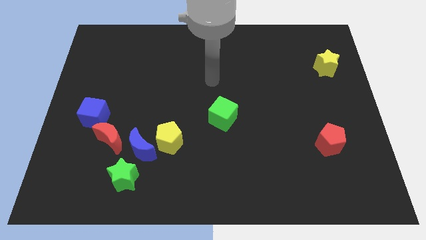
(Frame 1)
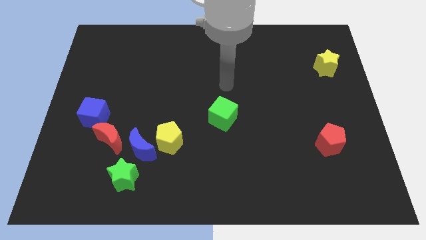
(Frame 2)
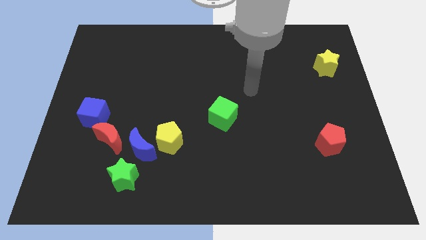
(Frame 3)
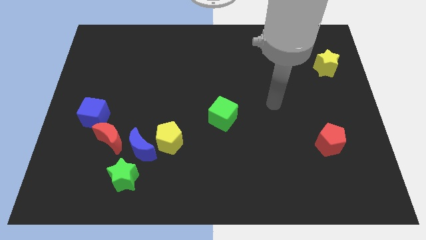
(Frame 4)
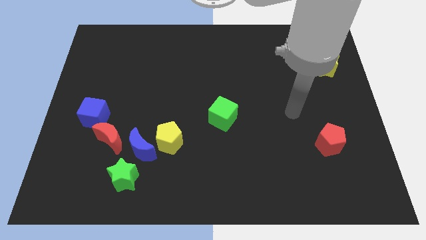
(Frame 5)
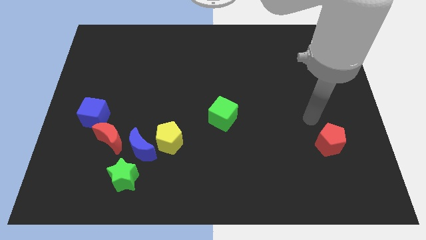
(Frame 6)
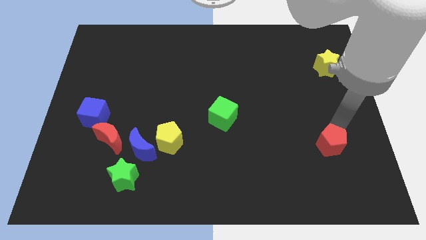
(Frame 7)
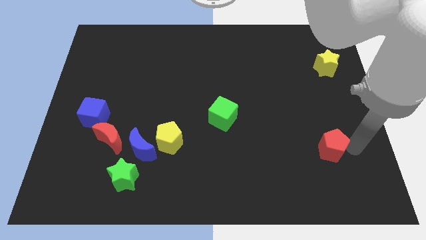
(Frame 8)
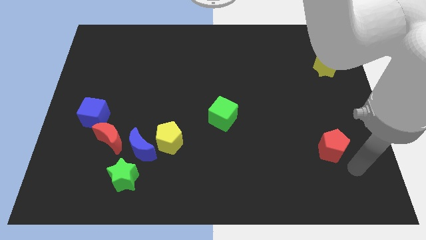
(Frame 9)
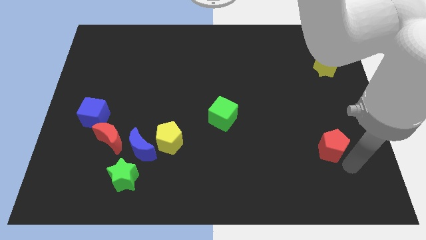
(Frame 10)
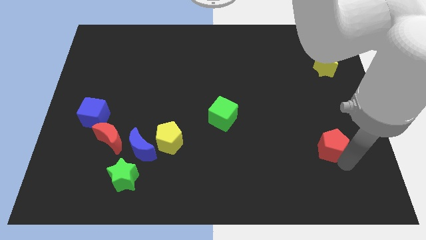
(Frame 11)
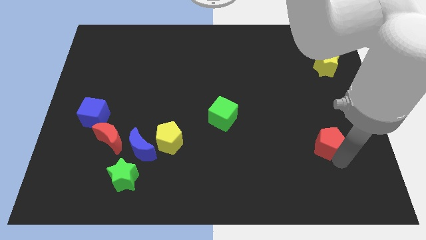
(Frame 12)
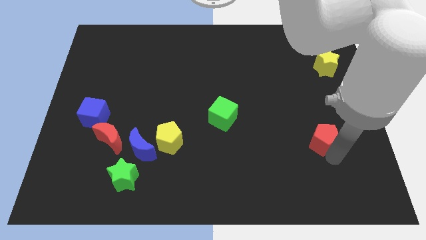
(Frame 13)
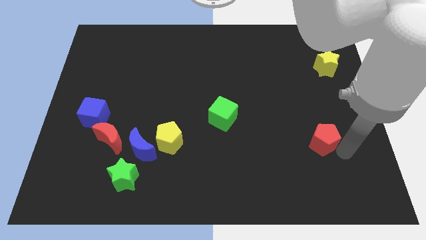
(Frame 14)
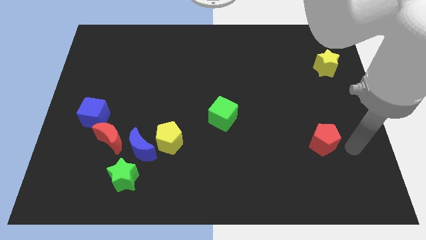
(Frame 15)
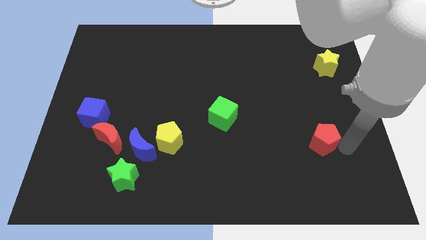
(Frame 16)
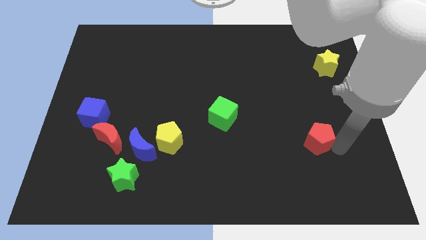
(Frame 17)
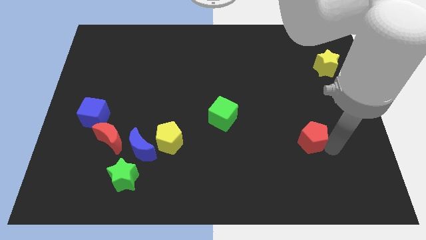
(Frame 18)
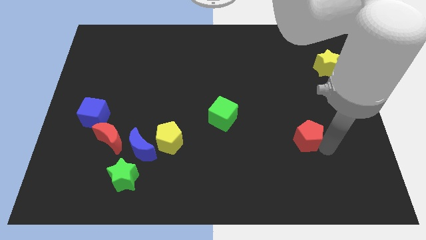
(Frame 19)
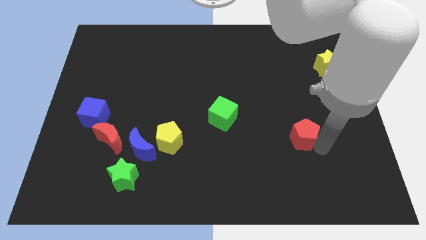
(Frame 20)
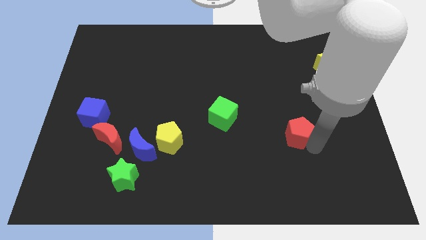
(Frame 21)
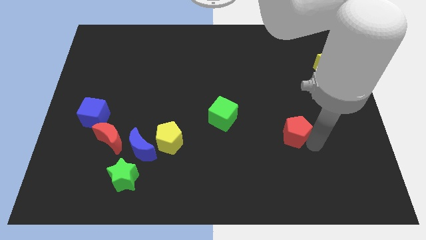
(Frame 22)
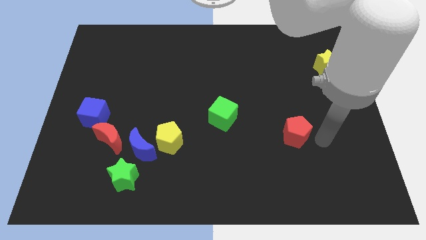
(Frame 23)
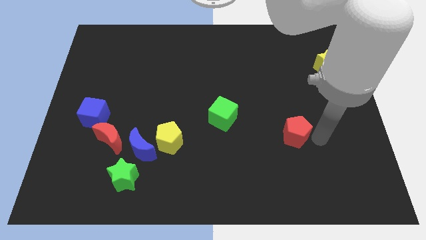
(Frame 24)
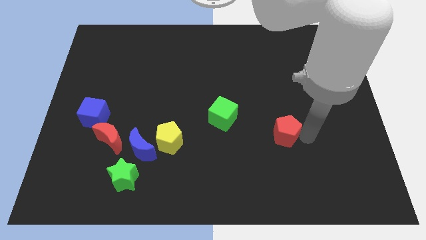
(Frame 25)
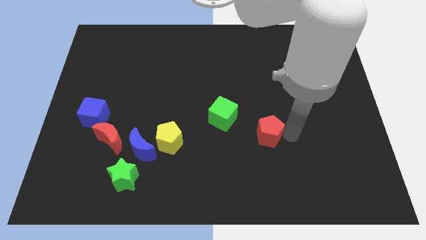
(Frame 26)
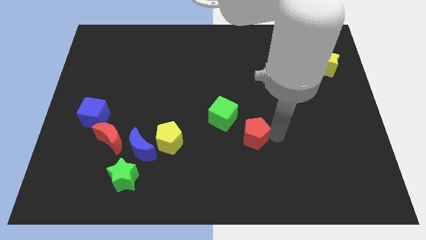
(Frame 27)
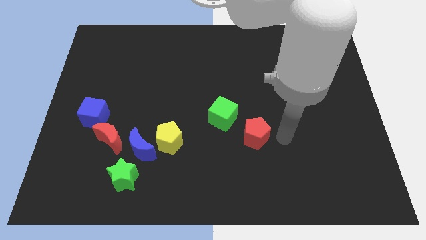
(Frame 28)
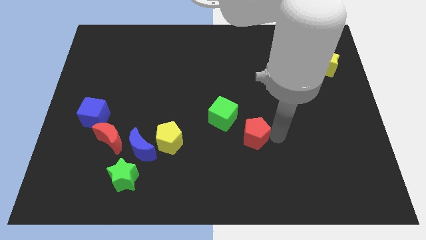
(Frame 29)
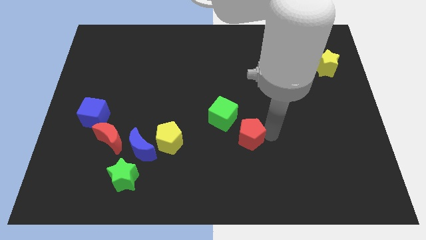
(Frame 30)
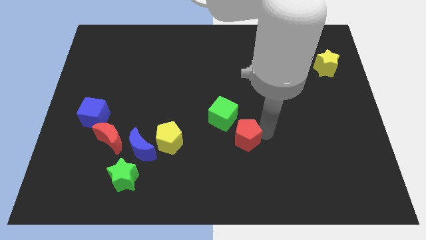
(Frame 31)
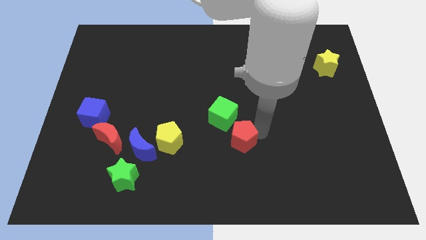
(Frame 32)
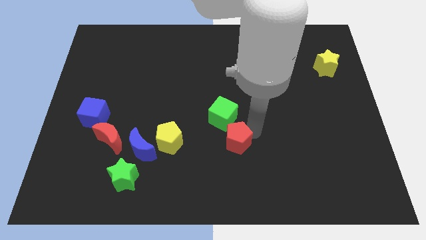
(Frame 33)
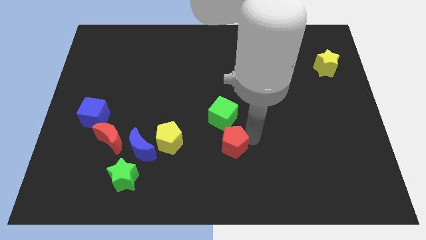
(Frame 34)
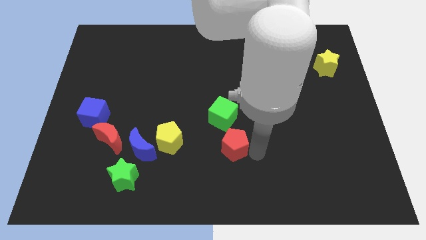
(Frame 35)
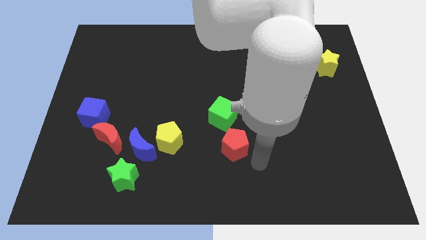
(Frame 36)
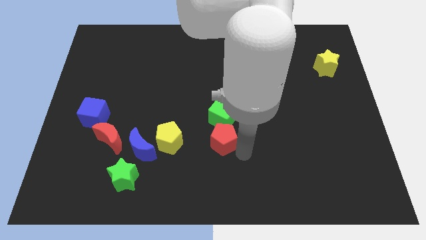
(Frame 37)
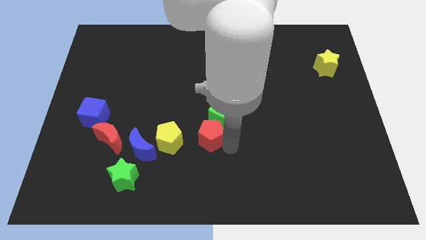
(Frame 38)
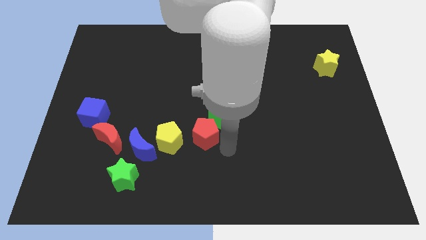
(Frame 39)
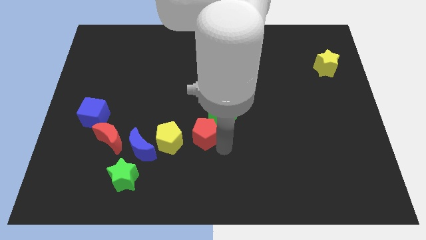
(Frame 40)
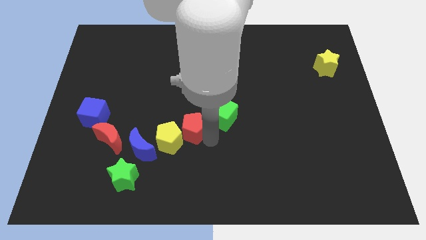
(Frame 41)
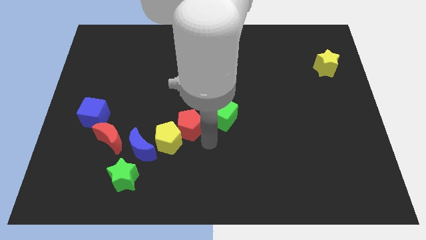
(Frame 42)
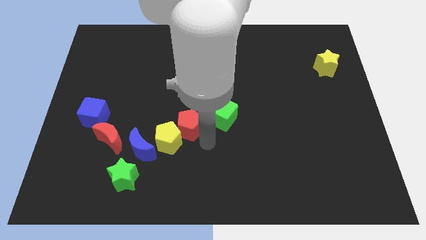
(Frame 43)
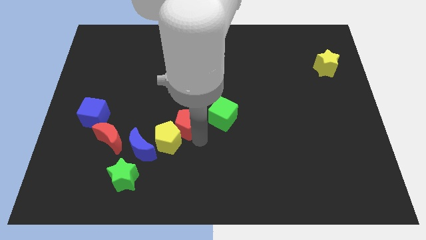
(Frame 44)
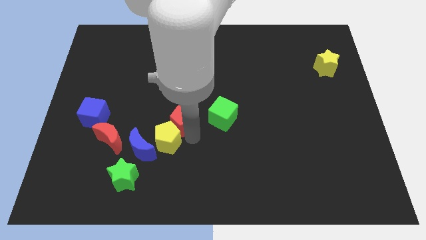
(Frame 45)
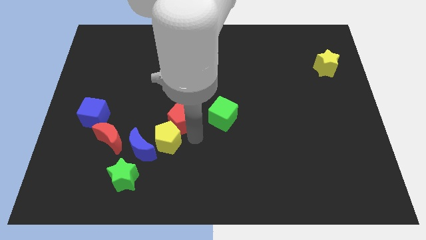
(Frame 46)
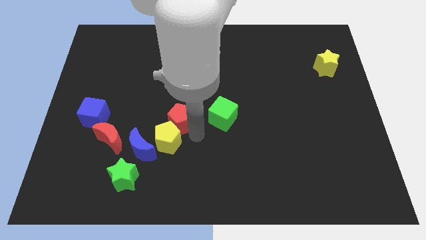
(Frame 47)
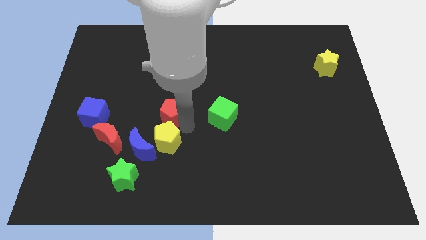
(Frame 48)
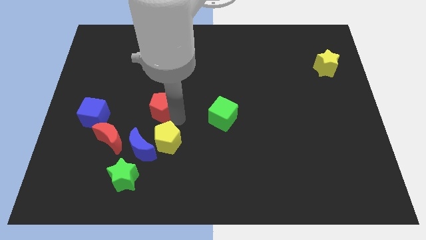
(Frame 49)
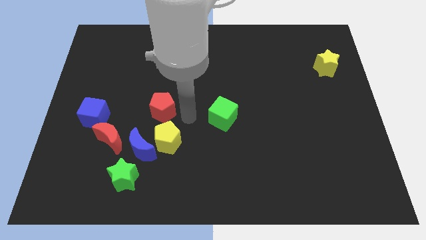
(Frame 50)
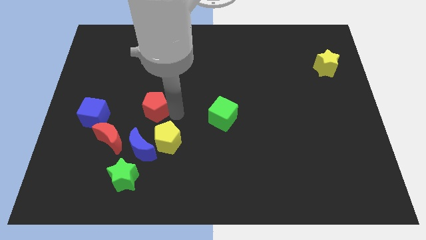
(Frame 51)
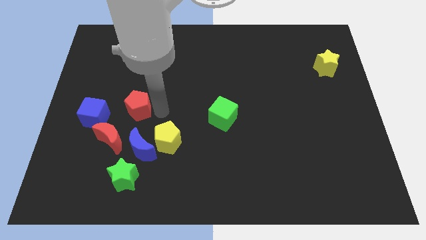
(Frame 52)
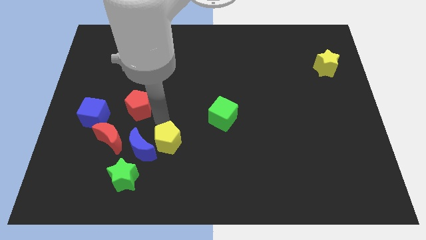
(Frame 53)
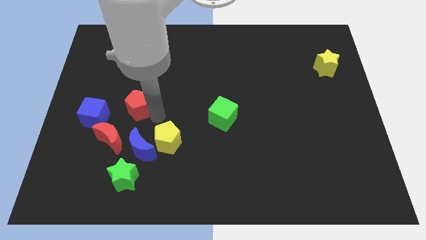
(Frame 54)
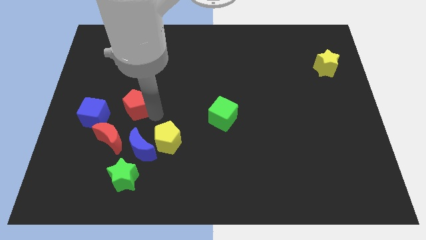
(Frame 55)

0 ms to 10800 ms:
slide the red pentagon to the top right side of the blue cube

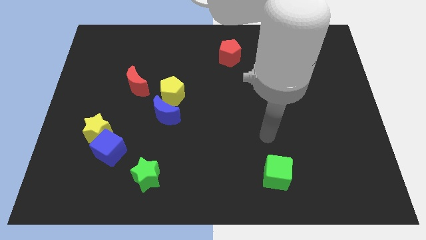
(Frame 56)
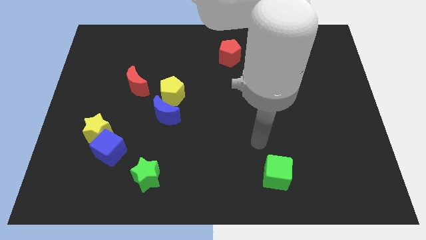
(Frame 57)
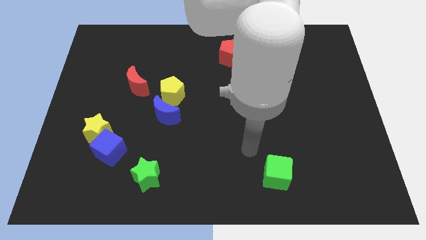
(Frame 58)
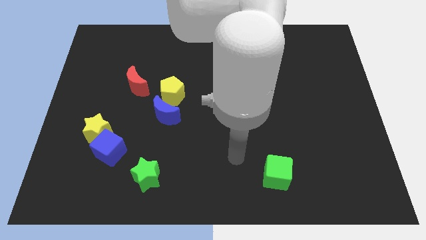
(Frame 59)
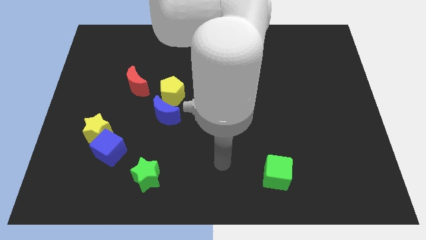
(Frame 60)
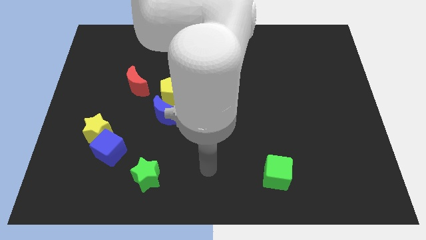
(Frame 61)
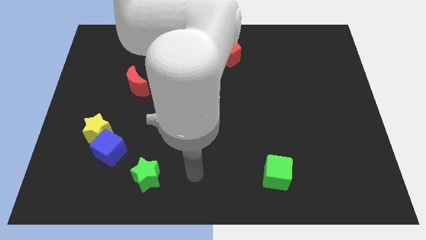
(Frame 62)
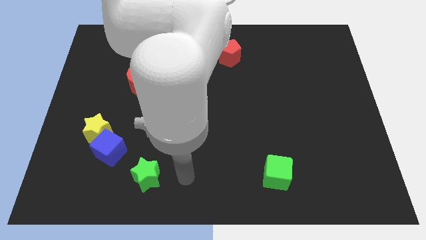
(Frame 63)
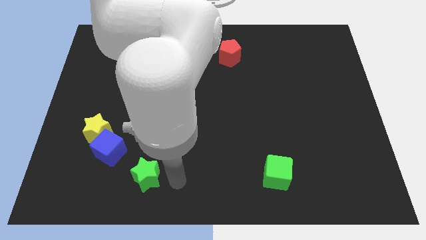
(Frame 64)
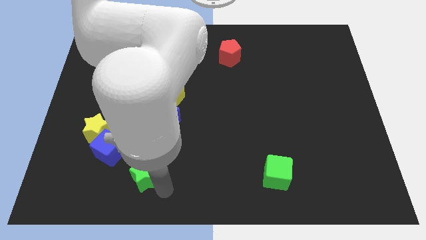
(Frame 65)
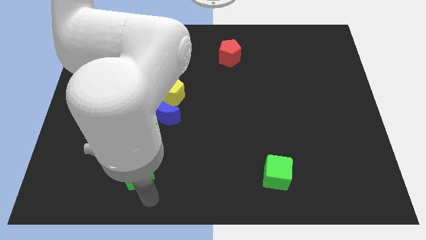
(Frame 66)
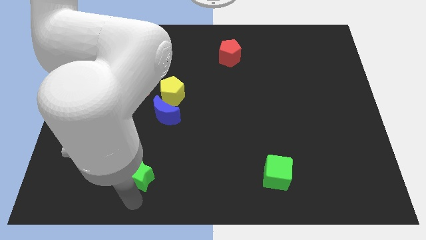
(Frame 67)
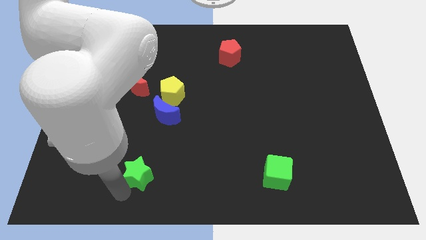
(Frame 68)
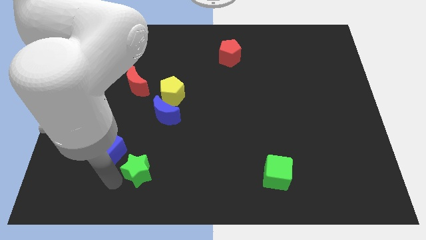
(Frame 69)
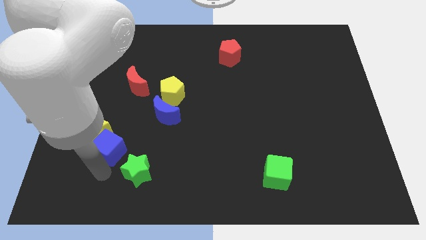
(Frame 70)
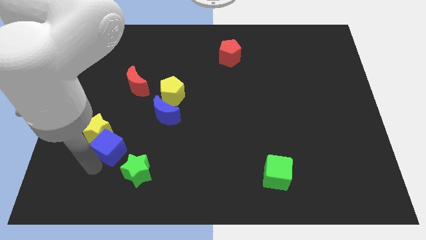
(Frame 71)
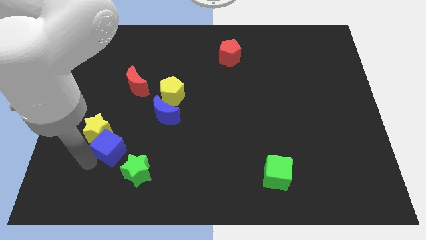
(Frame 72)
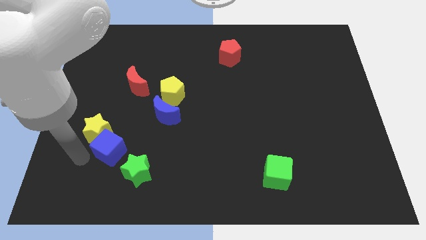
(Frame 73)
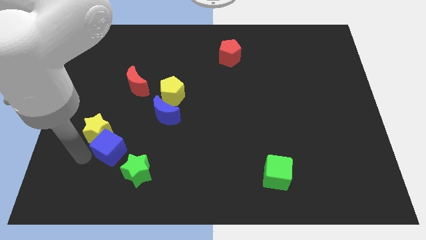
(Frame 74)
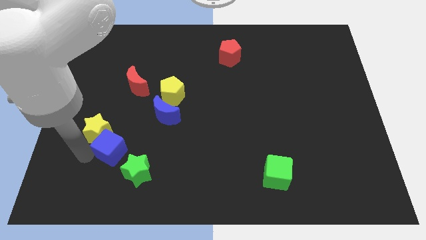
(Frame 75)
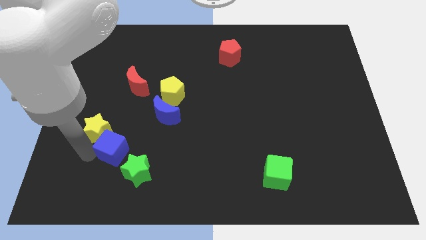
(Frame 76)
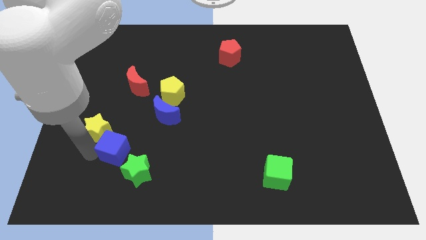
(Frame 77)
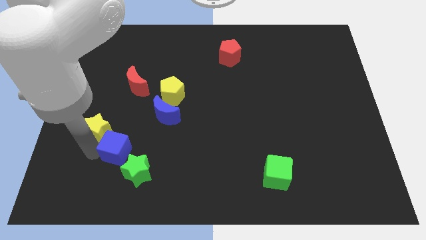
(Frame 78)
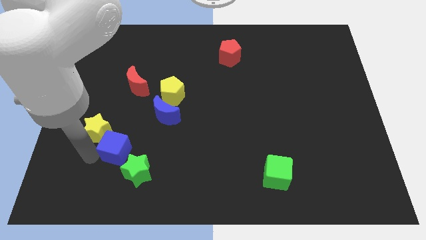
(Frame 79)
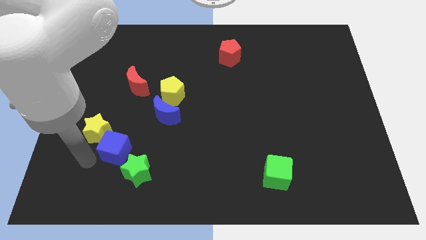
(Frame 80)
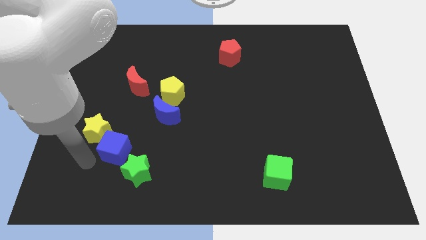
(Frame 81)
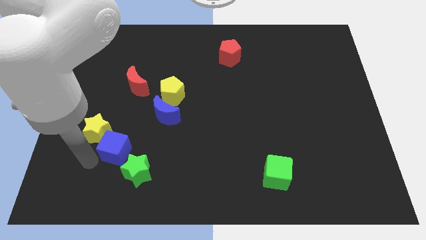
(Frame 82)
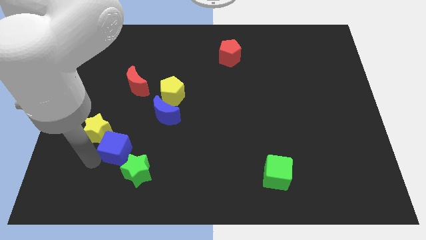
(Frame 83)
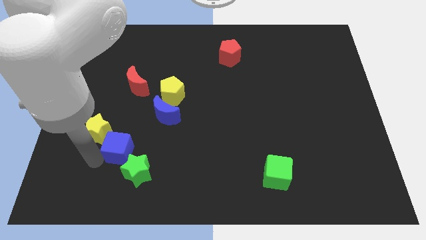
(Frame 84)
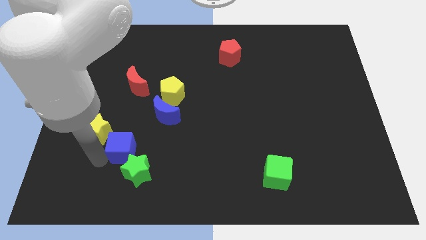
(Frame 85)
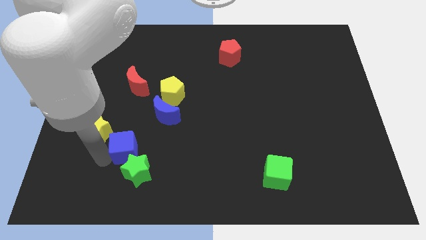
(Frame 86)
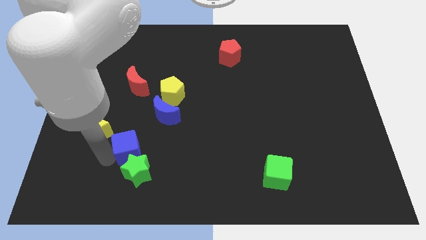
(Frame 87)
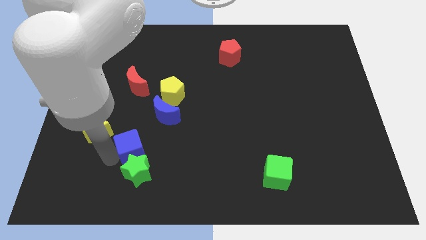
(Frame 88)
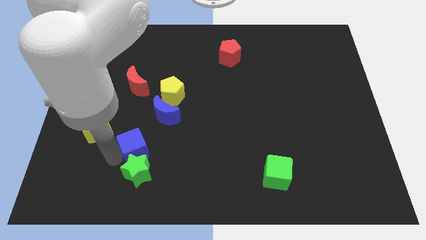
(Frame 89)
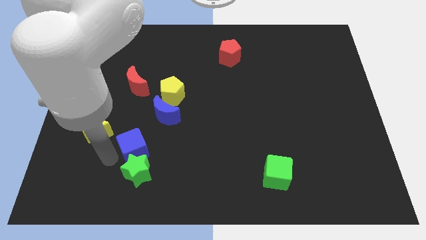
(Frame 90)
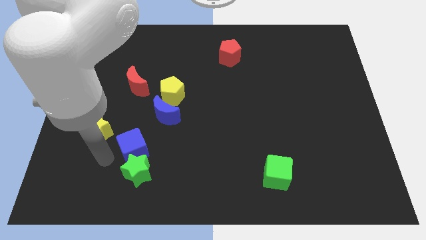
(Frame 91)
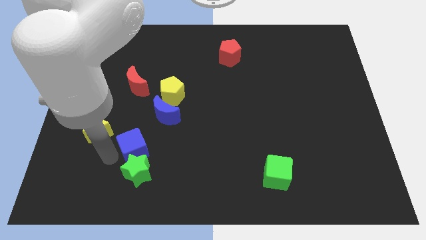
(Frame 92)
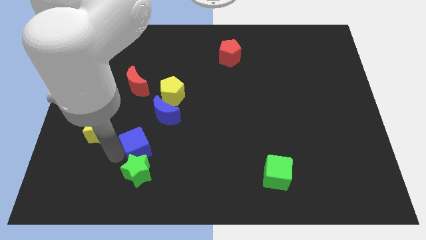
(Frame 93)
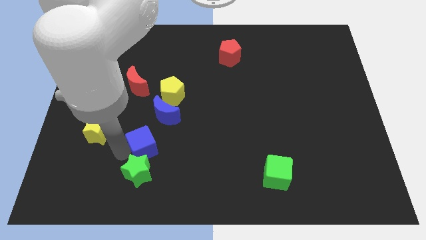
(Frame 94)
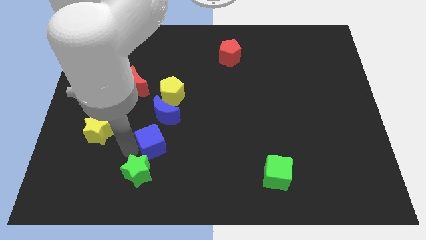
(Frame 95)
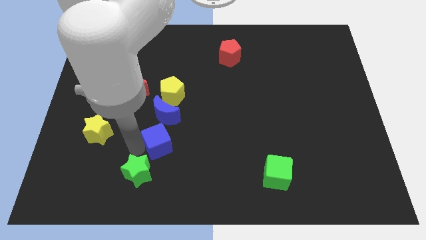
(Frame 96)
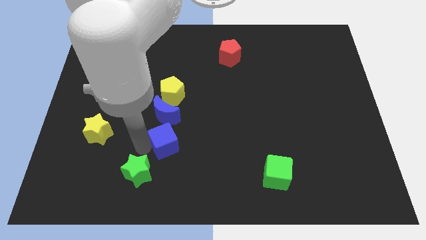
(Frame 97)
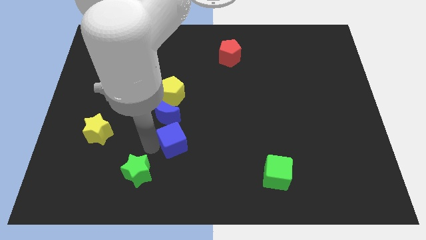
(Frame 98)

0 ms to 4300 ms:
move the blue cube to the bottom right side of the blue moon
